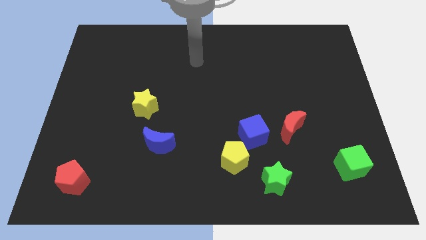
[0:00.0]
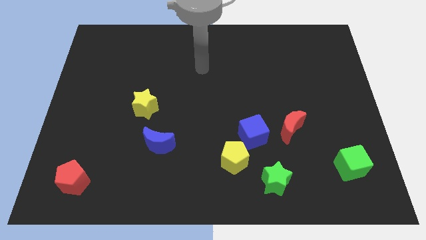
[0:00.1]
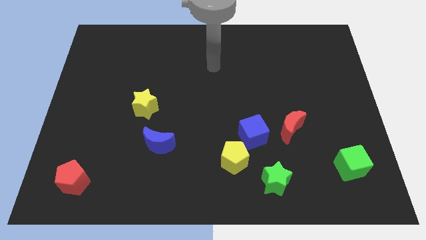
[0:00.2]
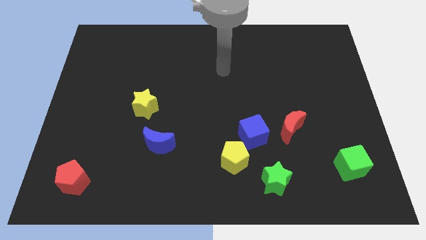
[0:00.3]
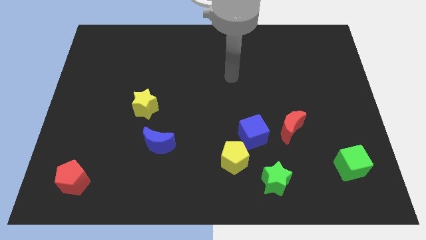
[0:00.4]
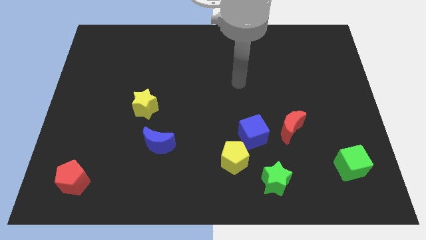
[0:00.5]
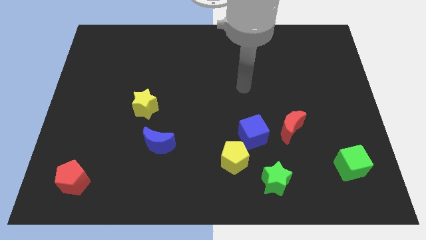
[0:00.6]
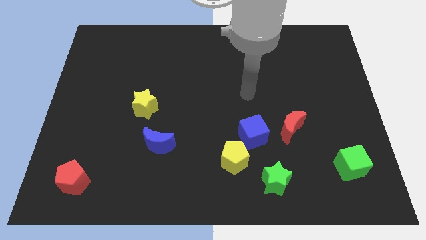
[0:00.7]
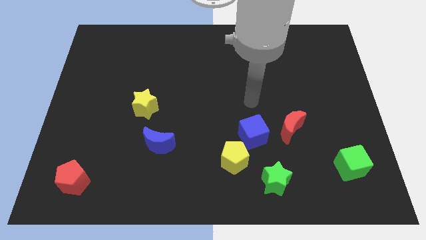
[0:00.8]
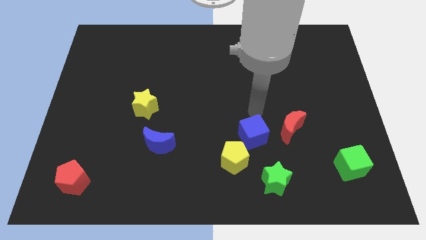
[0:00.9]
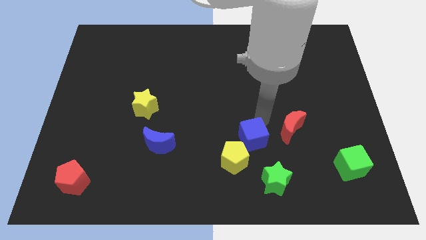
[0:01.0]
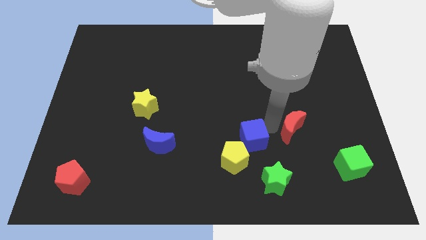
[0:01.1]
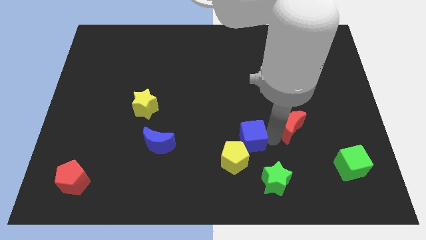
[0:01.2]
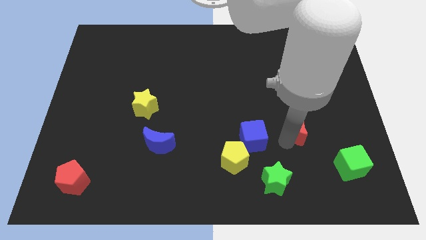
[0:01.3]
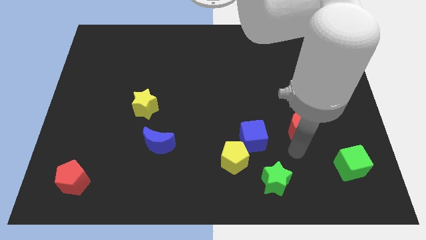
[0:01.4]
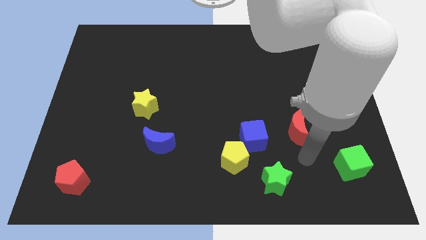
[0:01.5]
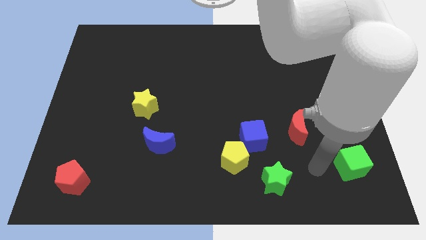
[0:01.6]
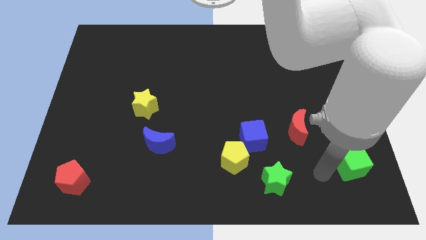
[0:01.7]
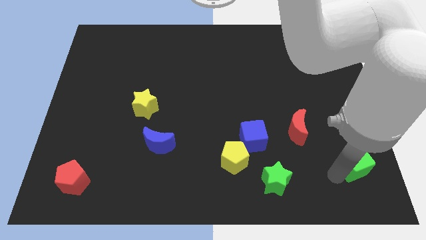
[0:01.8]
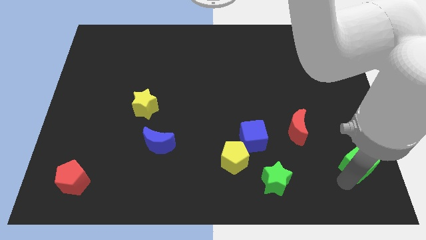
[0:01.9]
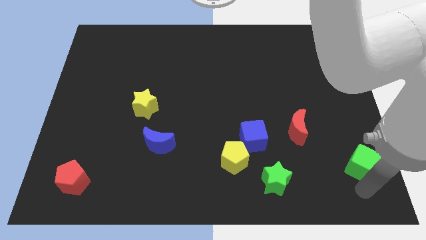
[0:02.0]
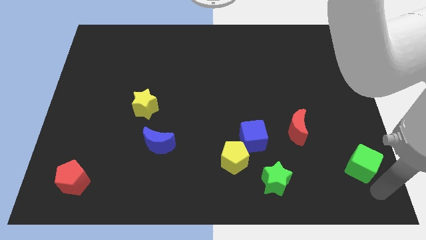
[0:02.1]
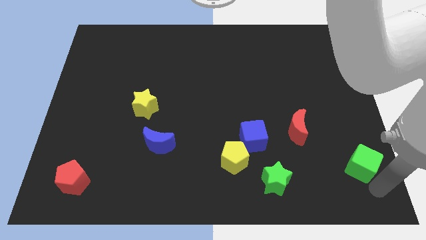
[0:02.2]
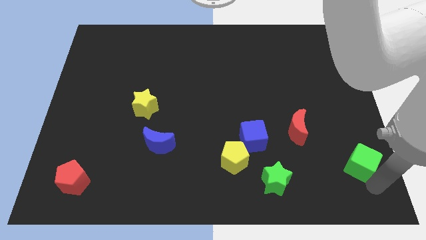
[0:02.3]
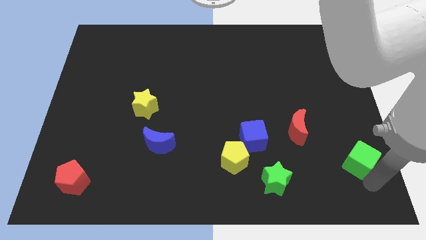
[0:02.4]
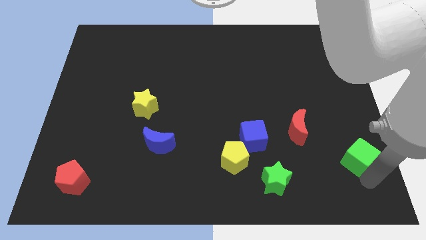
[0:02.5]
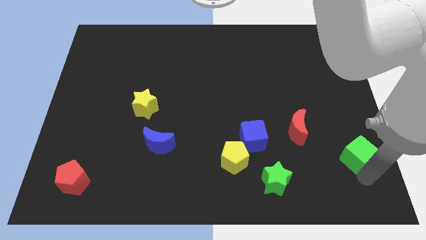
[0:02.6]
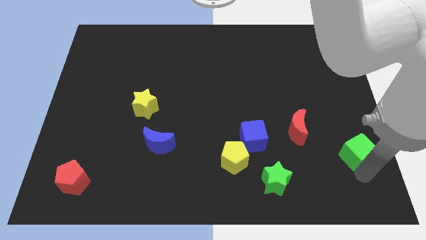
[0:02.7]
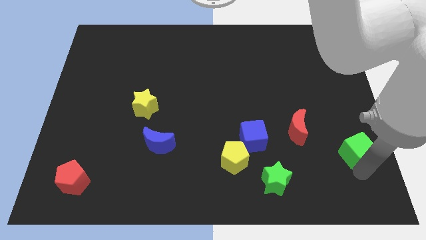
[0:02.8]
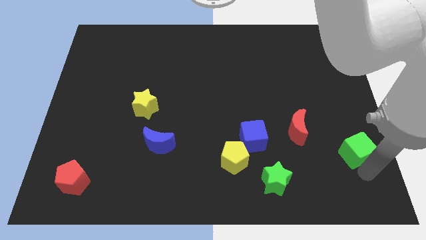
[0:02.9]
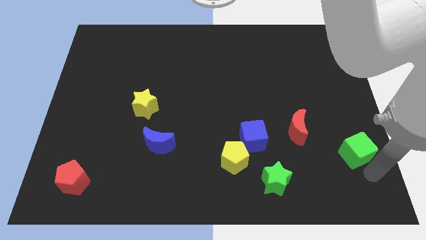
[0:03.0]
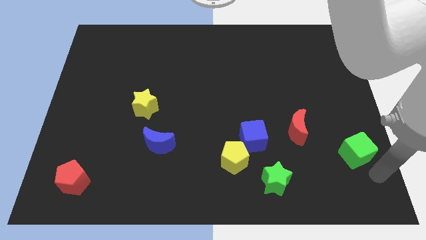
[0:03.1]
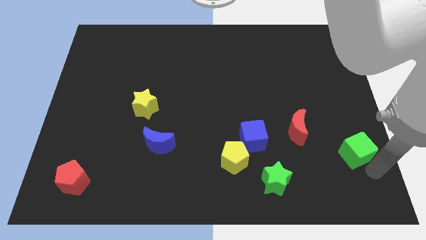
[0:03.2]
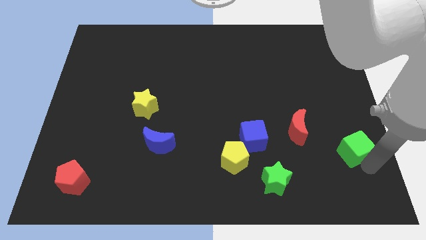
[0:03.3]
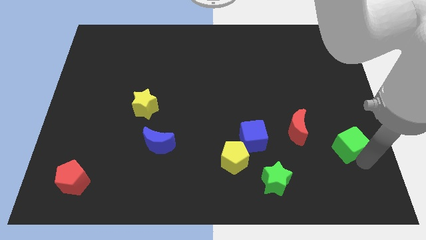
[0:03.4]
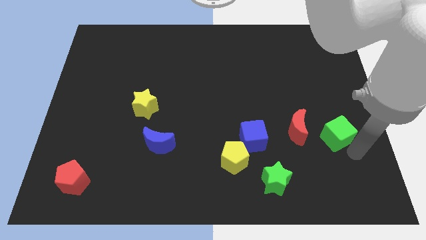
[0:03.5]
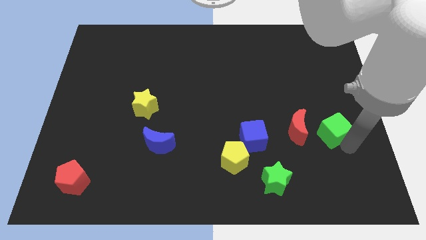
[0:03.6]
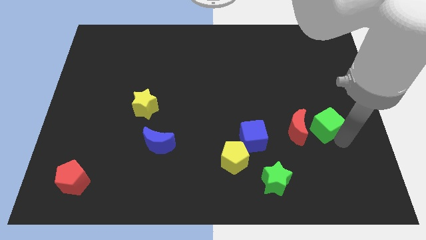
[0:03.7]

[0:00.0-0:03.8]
move the green cube up and to the left diagonally somewhat

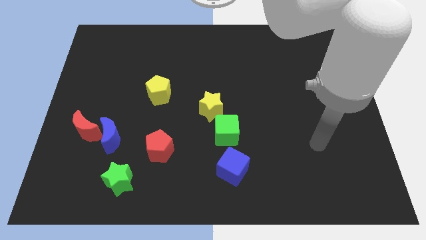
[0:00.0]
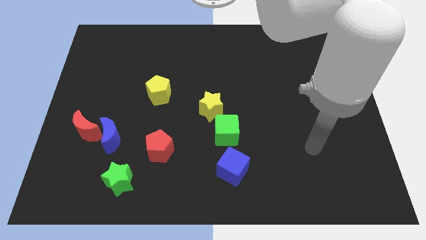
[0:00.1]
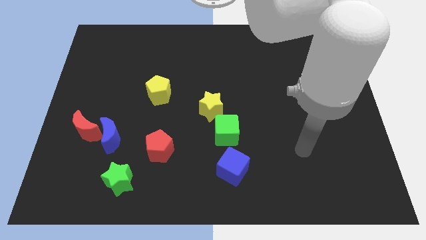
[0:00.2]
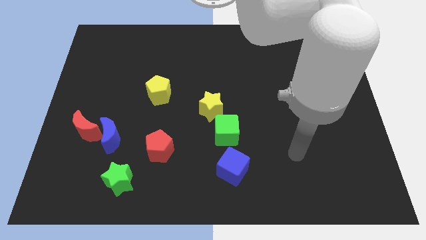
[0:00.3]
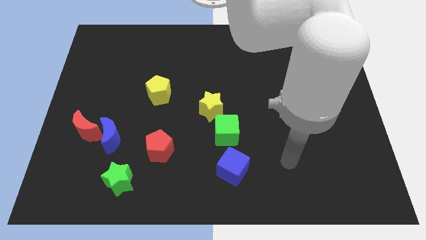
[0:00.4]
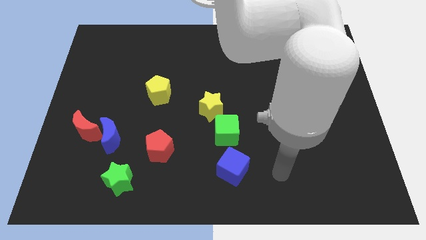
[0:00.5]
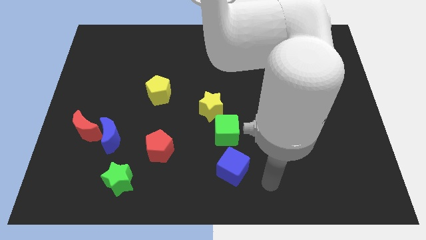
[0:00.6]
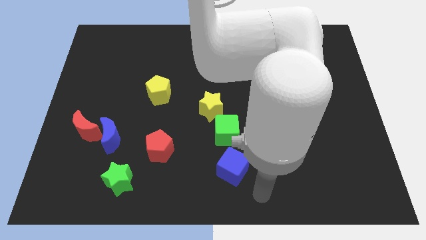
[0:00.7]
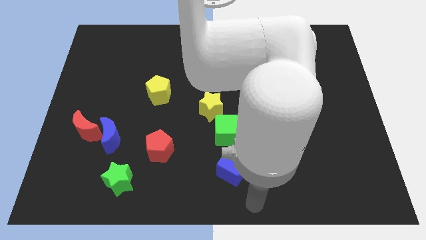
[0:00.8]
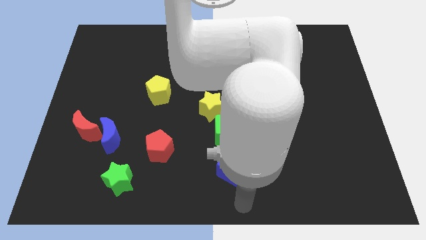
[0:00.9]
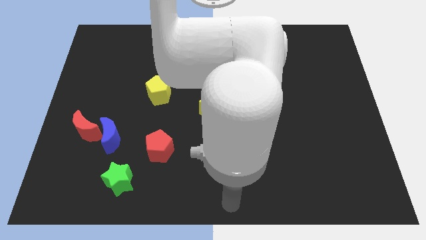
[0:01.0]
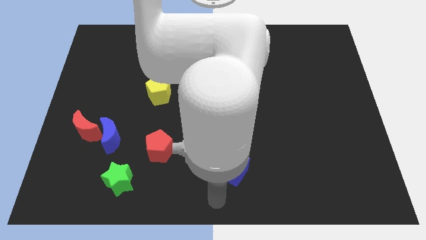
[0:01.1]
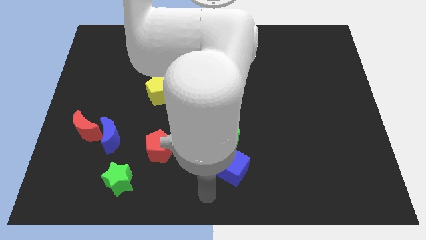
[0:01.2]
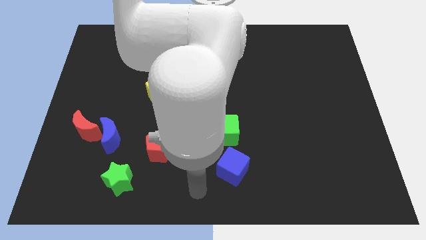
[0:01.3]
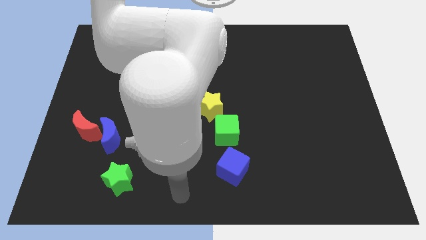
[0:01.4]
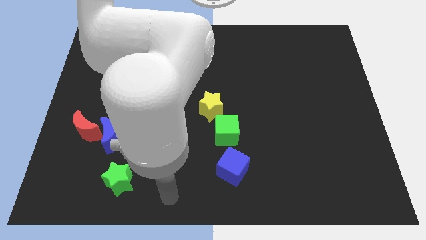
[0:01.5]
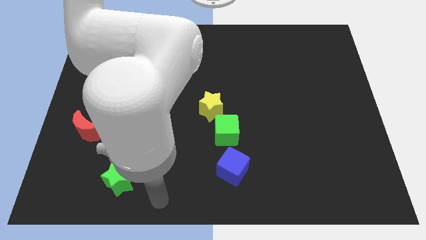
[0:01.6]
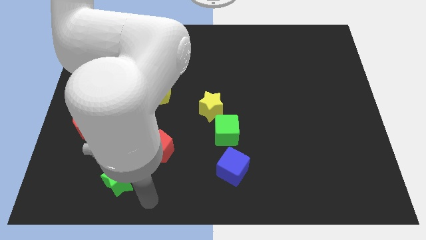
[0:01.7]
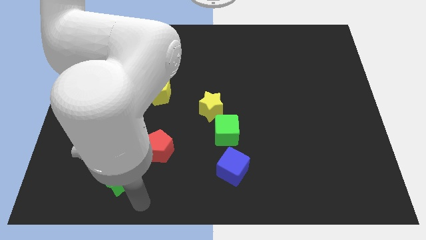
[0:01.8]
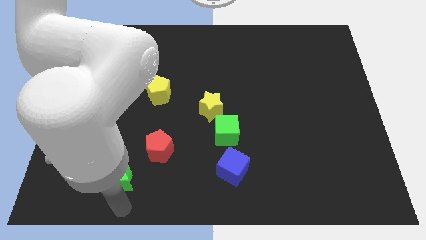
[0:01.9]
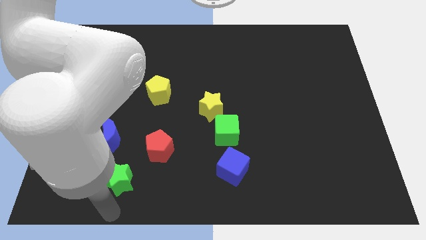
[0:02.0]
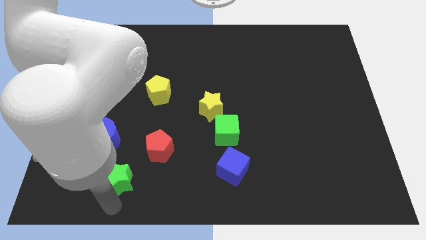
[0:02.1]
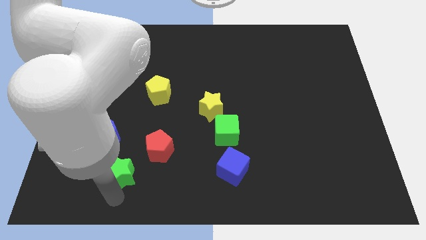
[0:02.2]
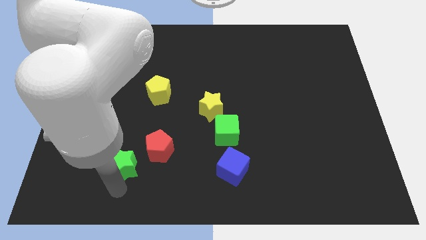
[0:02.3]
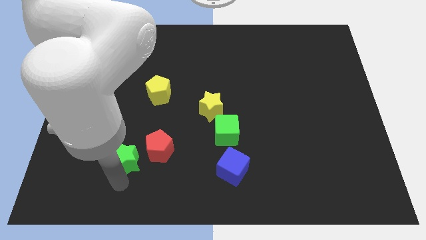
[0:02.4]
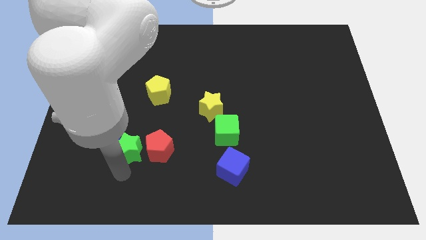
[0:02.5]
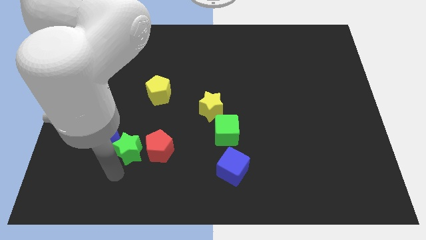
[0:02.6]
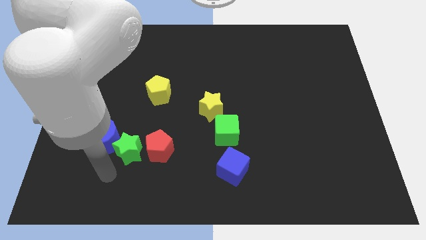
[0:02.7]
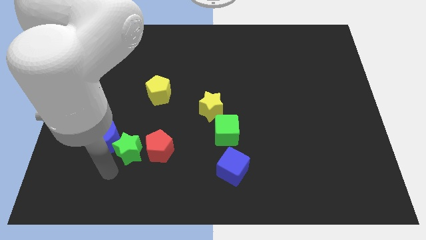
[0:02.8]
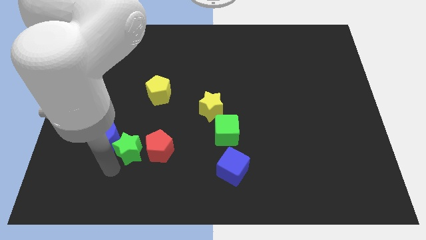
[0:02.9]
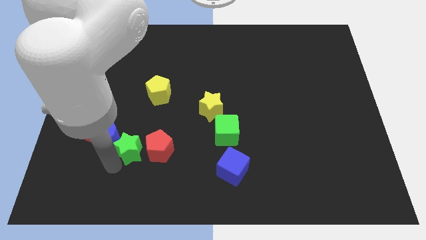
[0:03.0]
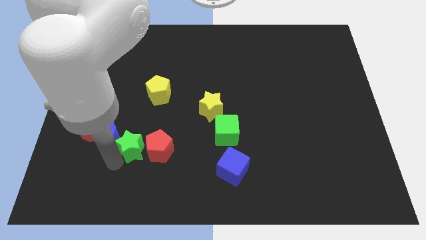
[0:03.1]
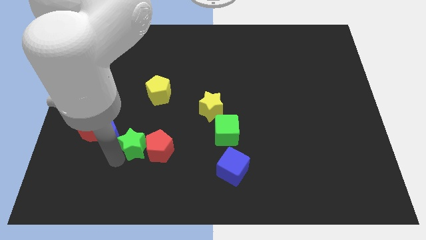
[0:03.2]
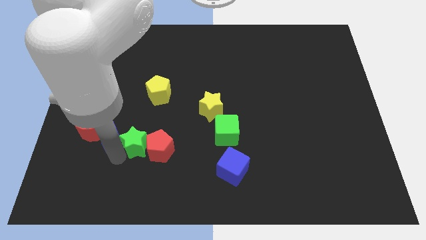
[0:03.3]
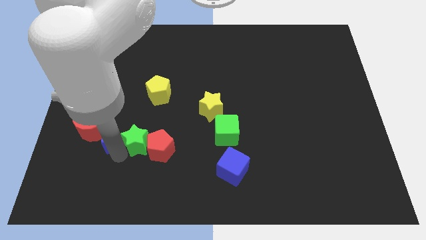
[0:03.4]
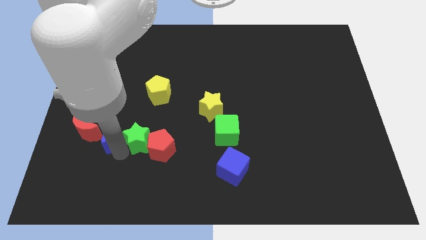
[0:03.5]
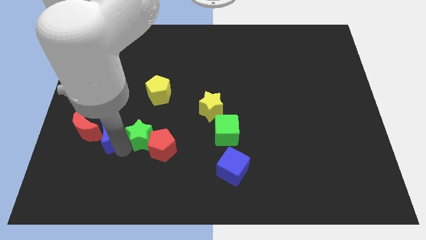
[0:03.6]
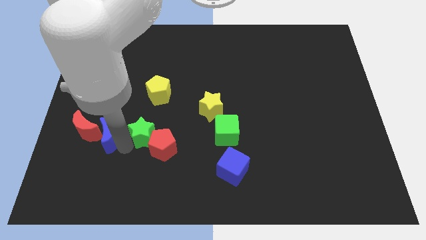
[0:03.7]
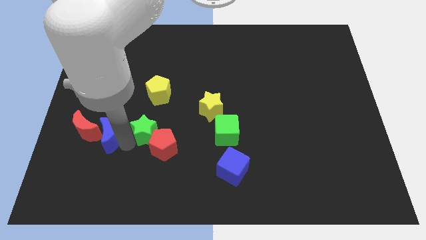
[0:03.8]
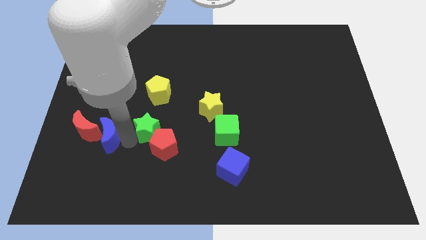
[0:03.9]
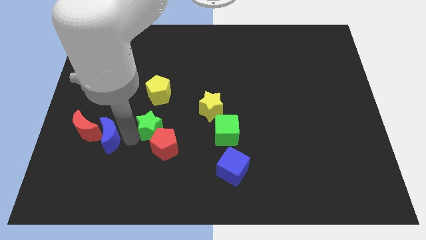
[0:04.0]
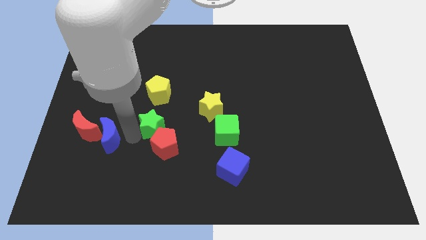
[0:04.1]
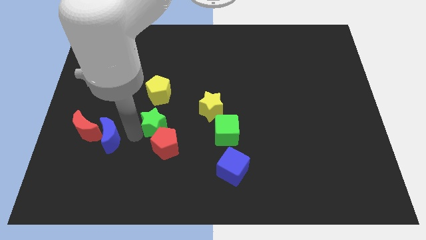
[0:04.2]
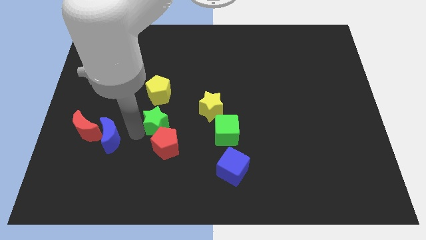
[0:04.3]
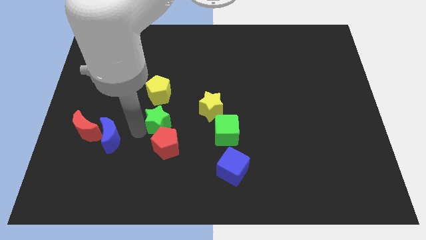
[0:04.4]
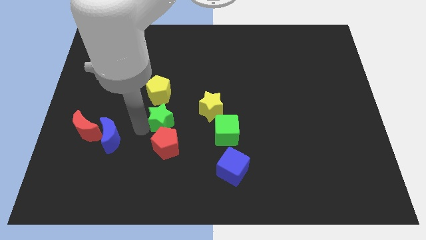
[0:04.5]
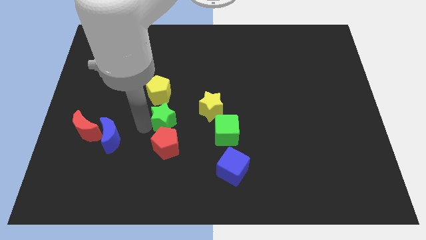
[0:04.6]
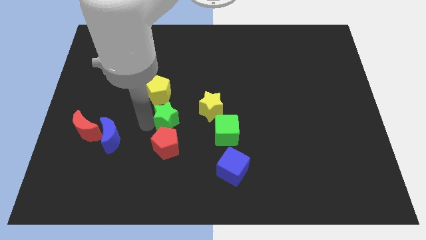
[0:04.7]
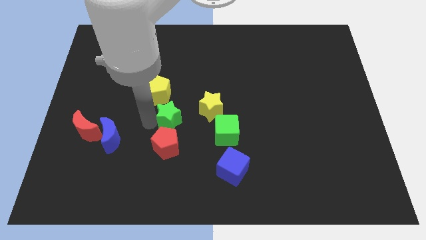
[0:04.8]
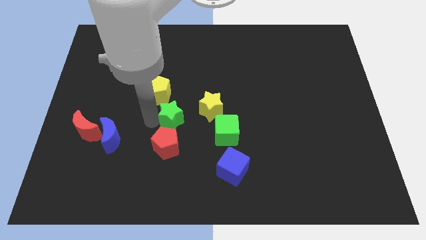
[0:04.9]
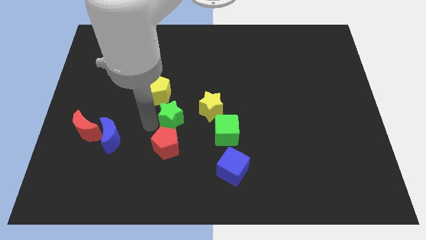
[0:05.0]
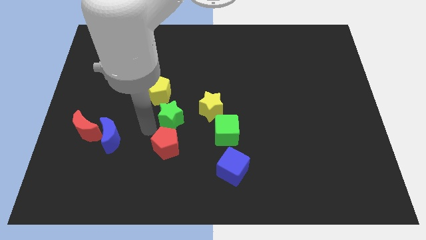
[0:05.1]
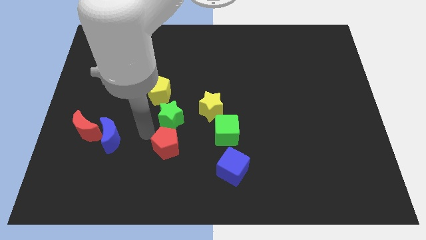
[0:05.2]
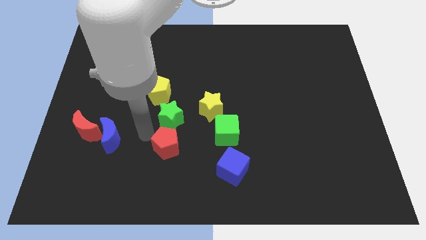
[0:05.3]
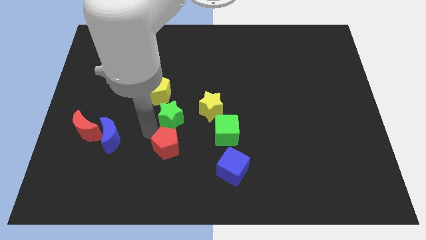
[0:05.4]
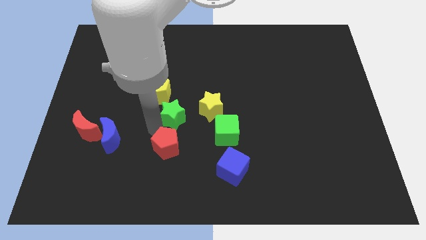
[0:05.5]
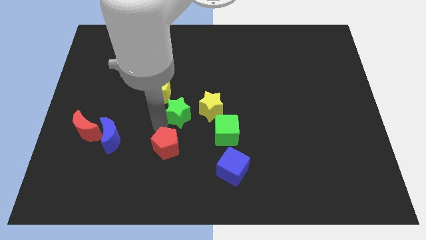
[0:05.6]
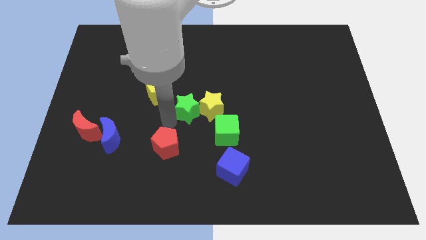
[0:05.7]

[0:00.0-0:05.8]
move the green star up and right diagonally
